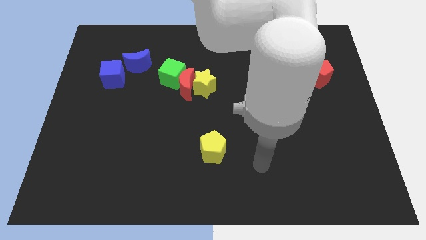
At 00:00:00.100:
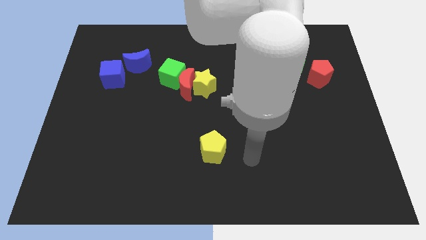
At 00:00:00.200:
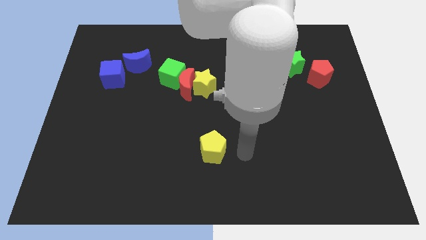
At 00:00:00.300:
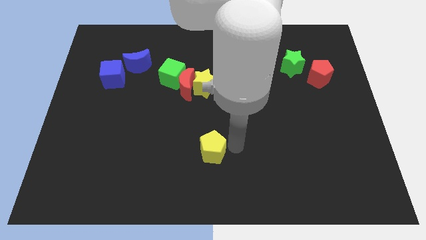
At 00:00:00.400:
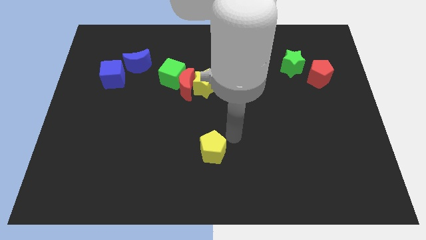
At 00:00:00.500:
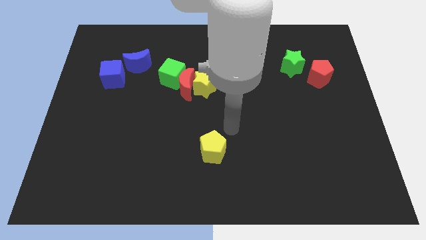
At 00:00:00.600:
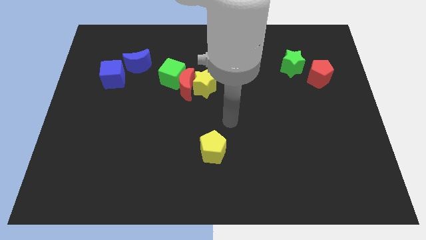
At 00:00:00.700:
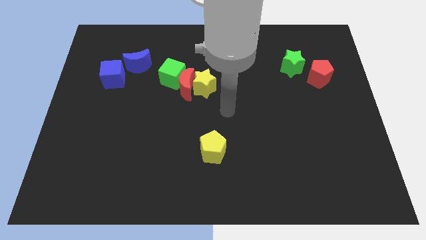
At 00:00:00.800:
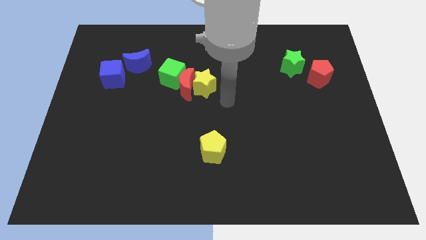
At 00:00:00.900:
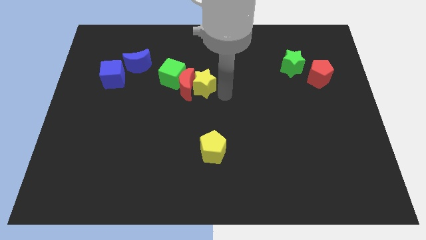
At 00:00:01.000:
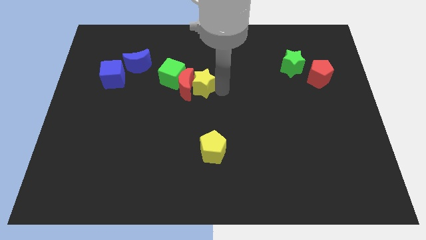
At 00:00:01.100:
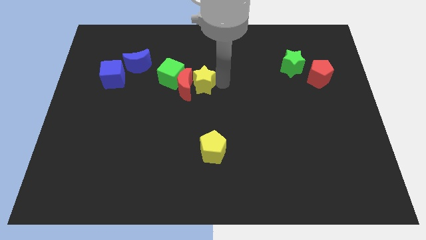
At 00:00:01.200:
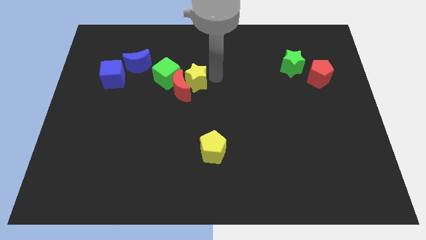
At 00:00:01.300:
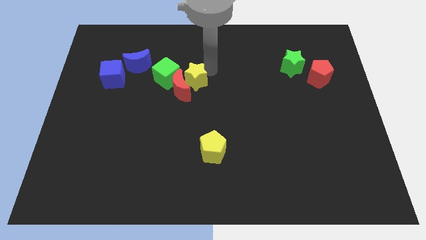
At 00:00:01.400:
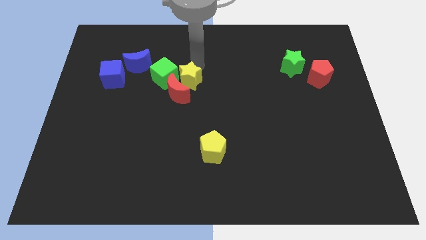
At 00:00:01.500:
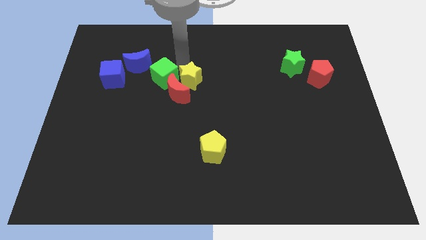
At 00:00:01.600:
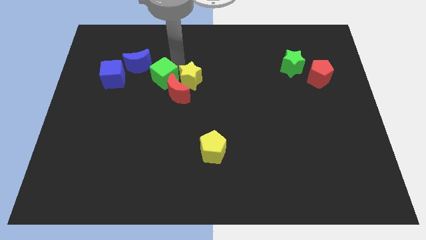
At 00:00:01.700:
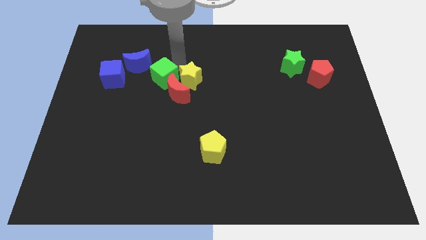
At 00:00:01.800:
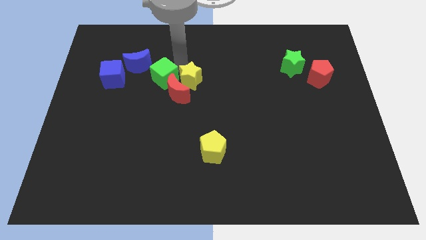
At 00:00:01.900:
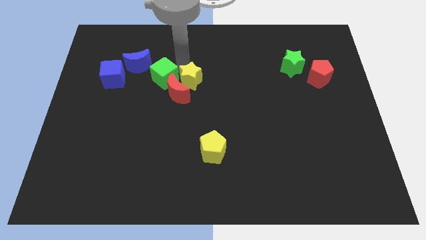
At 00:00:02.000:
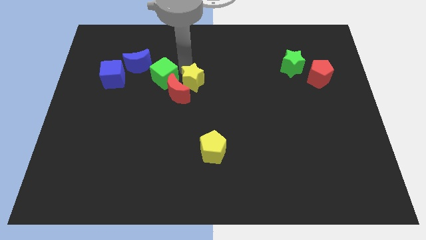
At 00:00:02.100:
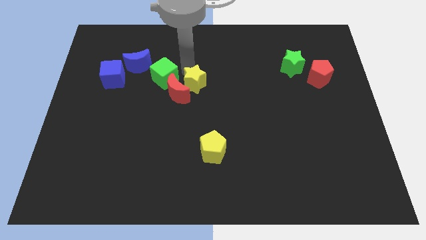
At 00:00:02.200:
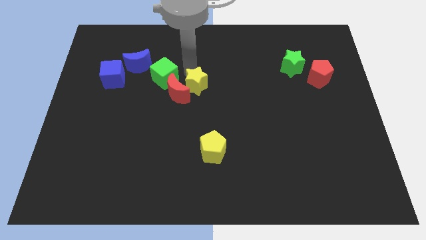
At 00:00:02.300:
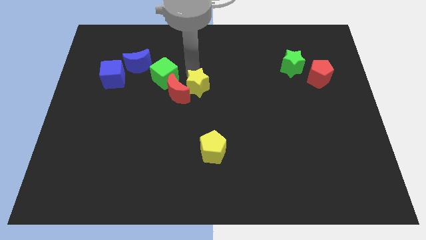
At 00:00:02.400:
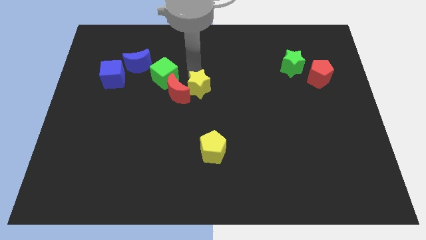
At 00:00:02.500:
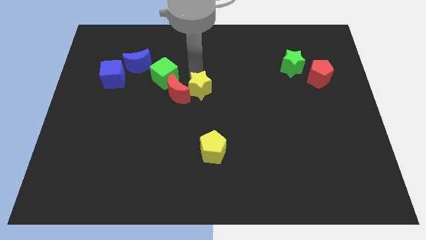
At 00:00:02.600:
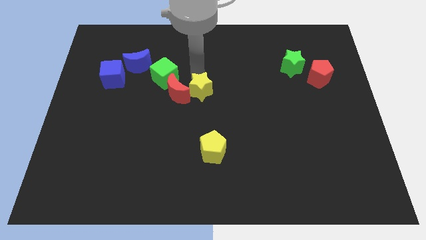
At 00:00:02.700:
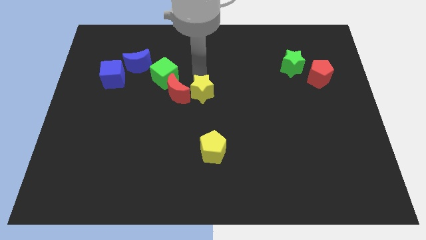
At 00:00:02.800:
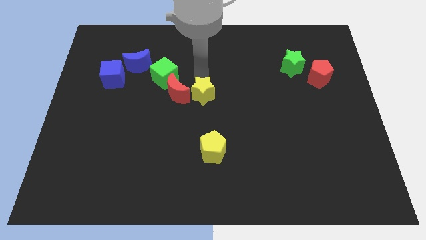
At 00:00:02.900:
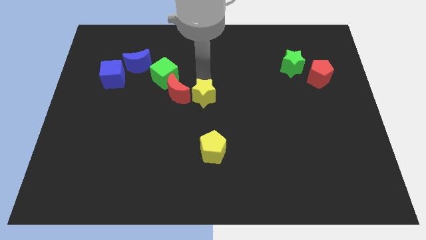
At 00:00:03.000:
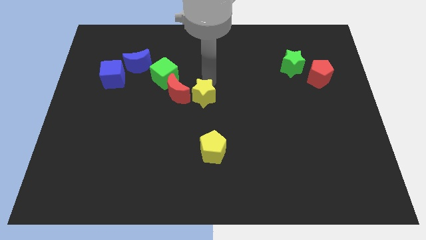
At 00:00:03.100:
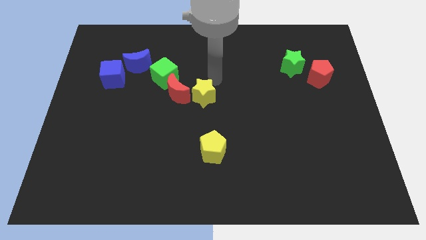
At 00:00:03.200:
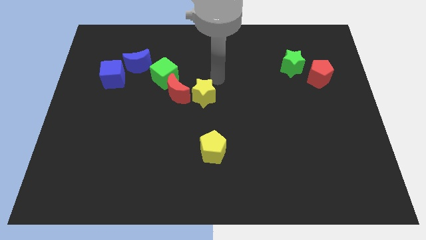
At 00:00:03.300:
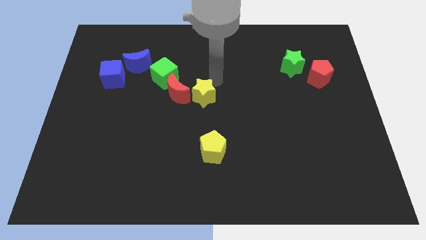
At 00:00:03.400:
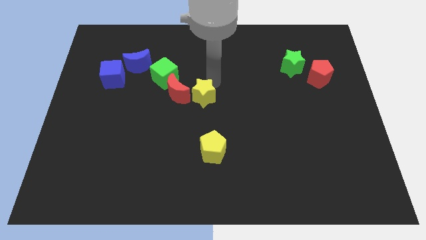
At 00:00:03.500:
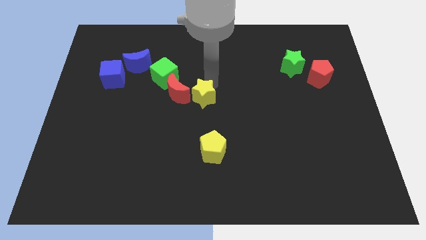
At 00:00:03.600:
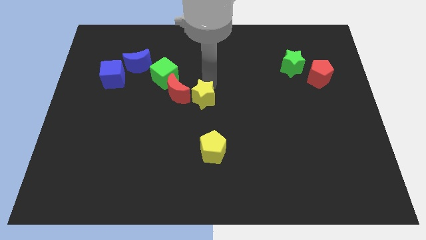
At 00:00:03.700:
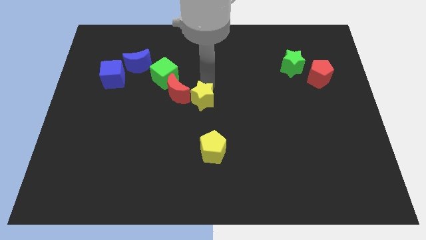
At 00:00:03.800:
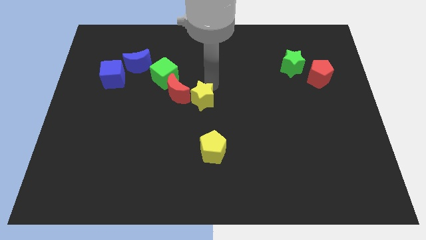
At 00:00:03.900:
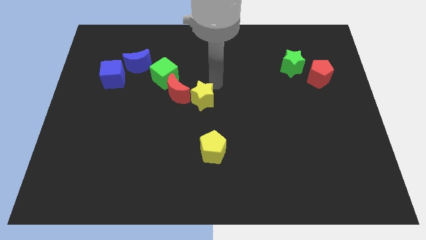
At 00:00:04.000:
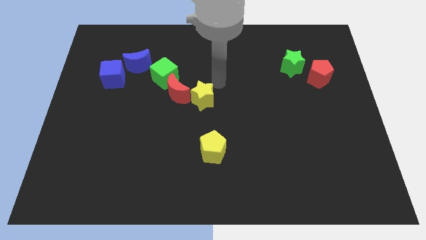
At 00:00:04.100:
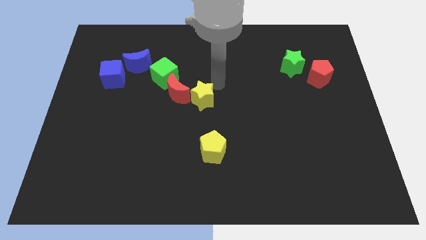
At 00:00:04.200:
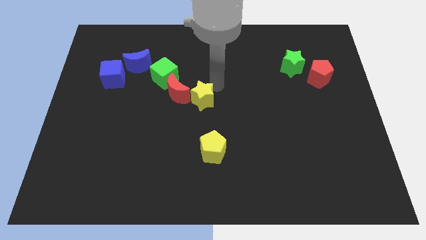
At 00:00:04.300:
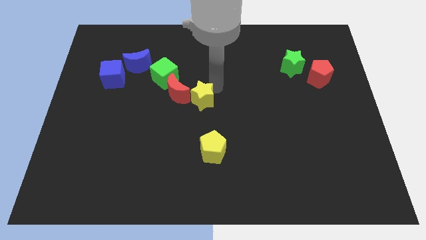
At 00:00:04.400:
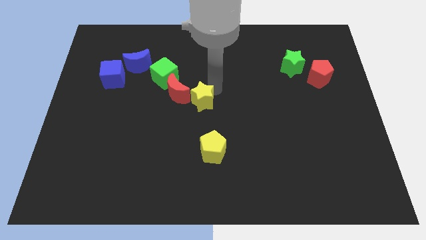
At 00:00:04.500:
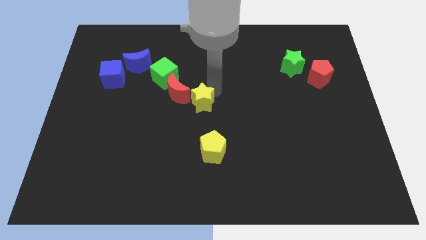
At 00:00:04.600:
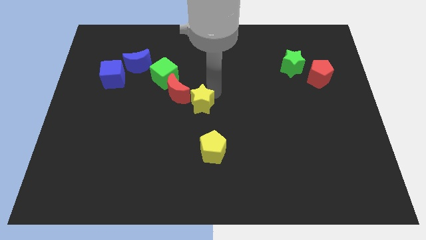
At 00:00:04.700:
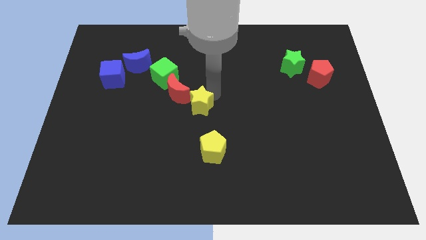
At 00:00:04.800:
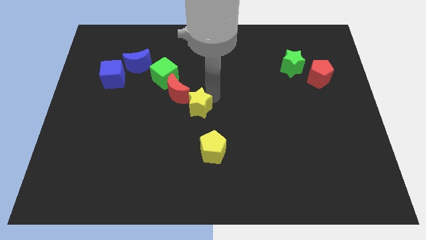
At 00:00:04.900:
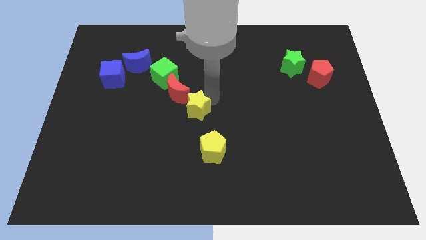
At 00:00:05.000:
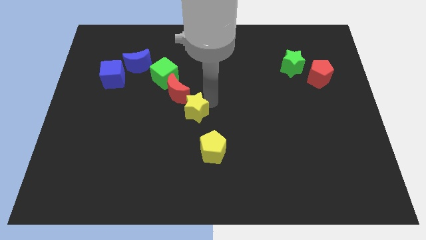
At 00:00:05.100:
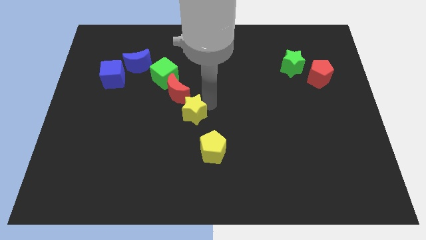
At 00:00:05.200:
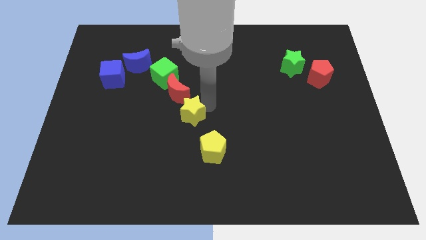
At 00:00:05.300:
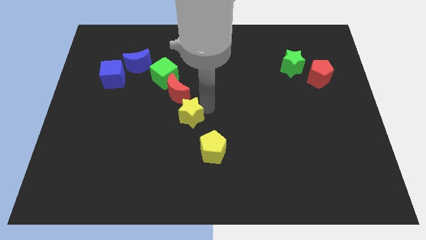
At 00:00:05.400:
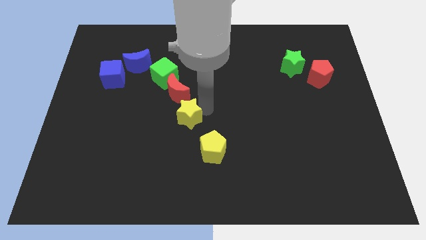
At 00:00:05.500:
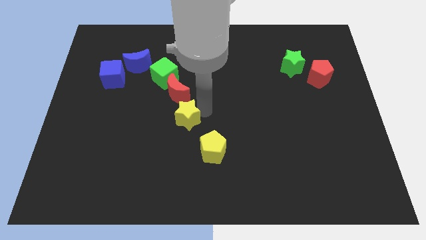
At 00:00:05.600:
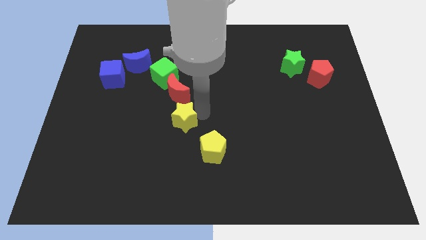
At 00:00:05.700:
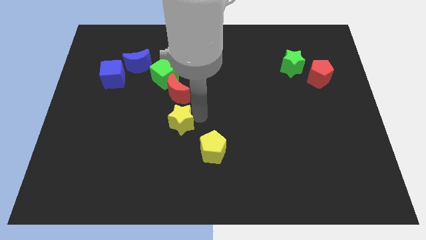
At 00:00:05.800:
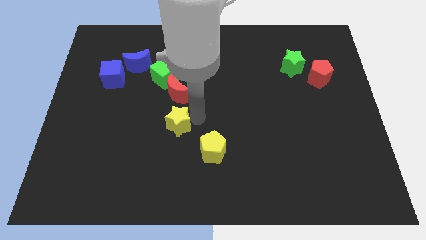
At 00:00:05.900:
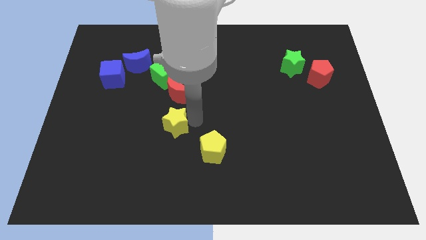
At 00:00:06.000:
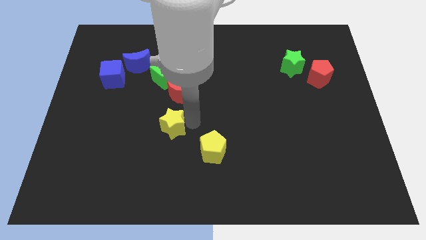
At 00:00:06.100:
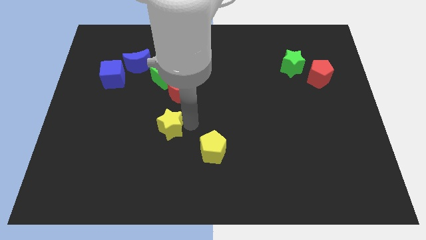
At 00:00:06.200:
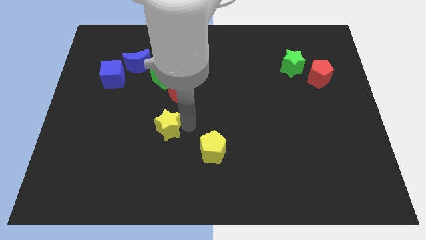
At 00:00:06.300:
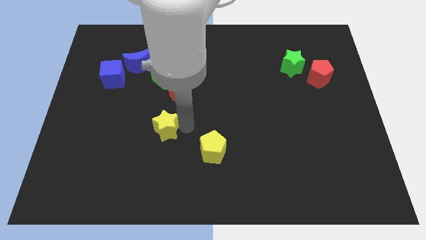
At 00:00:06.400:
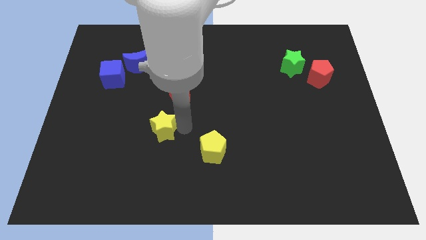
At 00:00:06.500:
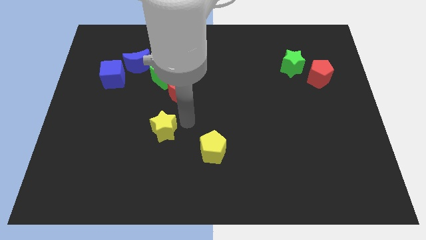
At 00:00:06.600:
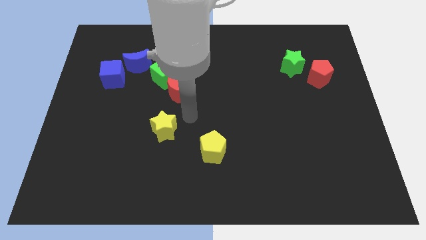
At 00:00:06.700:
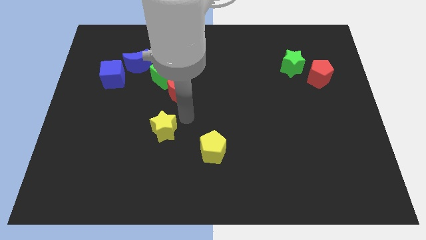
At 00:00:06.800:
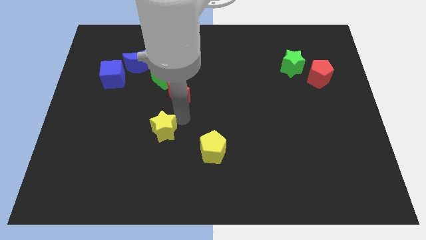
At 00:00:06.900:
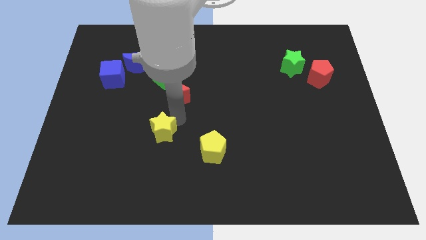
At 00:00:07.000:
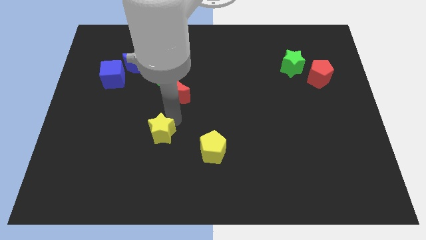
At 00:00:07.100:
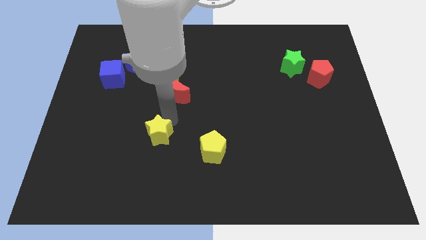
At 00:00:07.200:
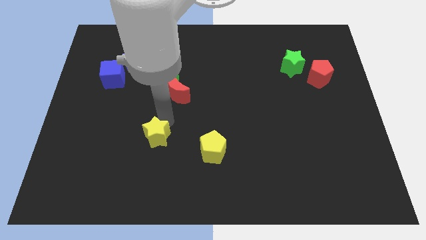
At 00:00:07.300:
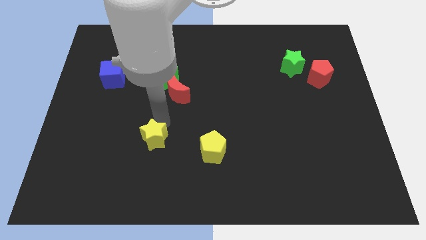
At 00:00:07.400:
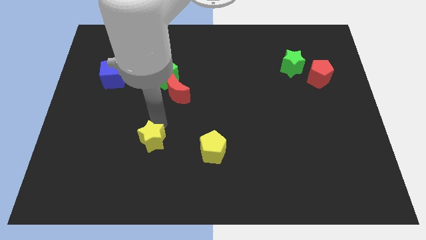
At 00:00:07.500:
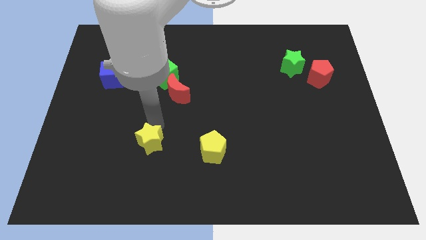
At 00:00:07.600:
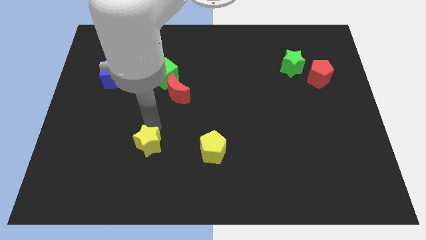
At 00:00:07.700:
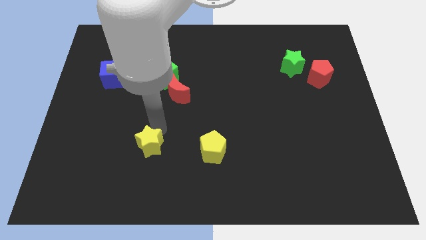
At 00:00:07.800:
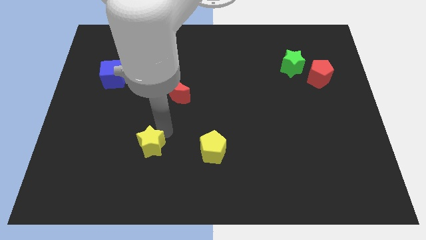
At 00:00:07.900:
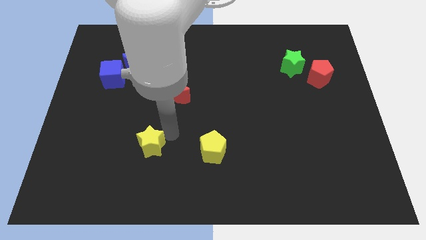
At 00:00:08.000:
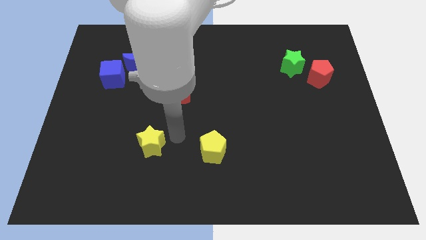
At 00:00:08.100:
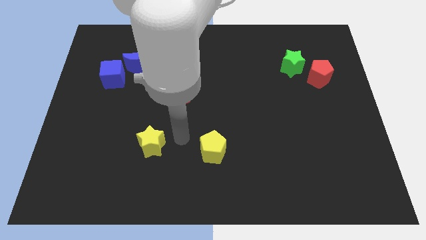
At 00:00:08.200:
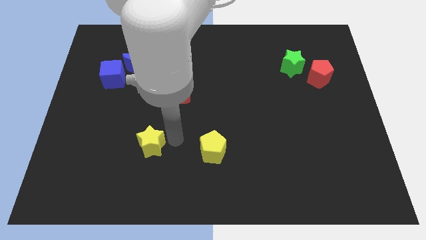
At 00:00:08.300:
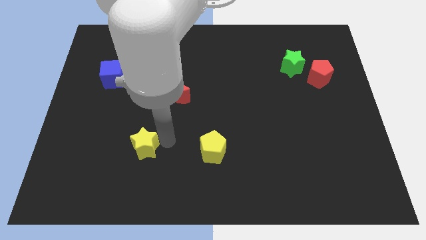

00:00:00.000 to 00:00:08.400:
push the yellow star down and then to the left
